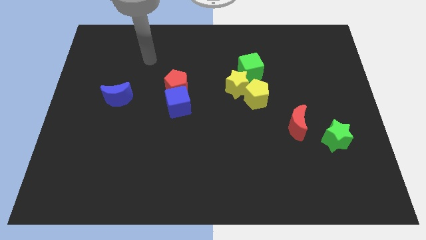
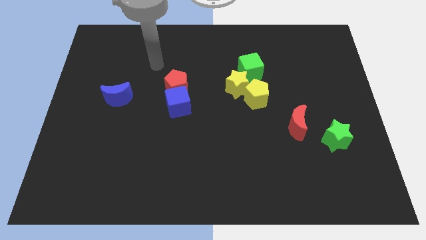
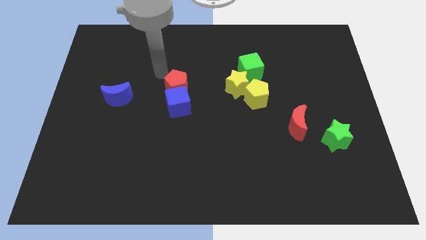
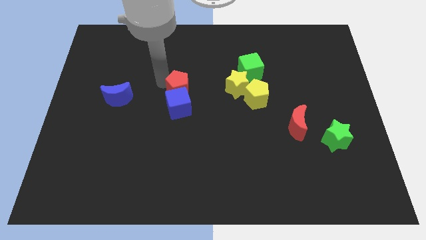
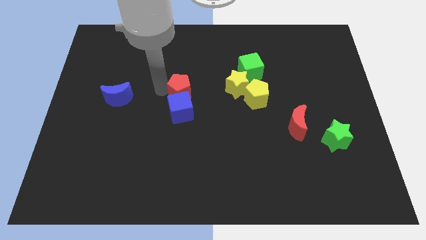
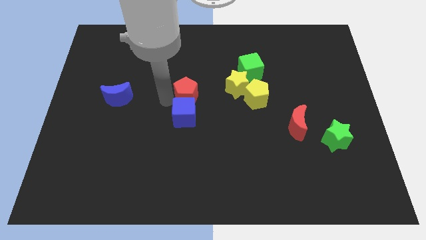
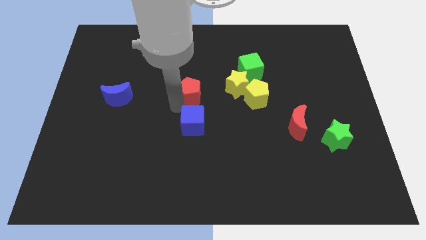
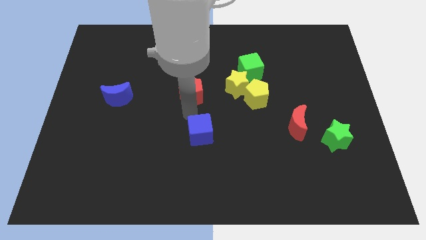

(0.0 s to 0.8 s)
pull the red pentagon apart from the blue cube

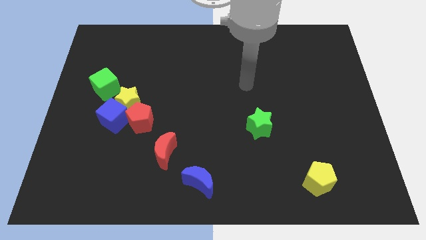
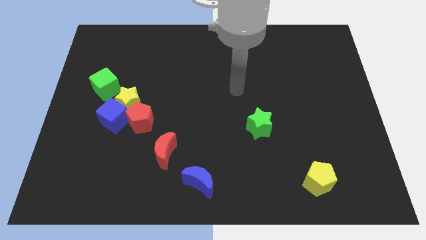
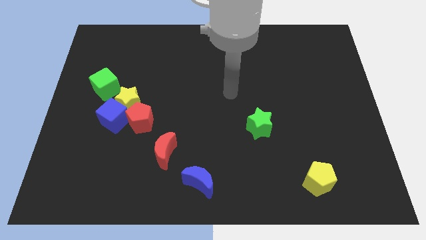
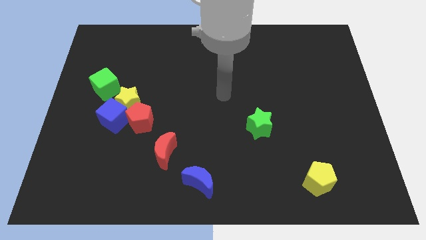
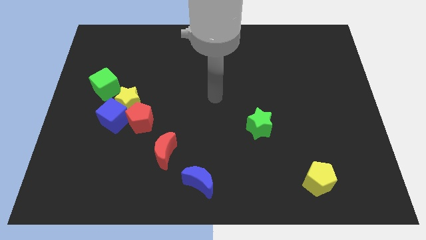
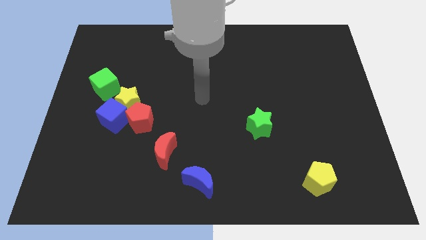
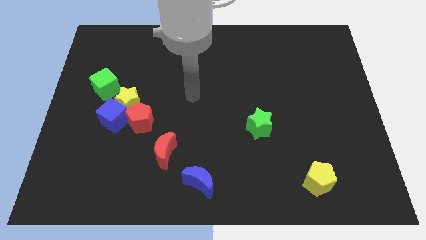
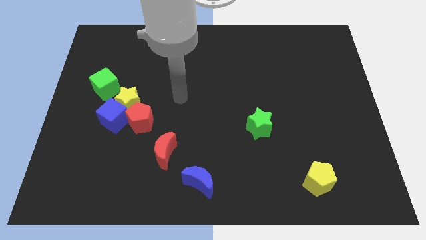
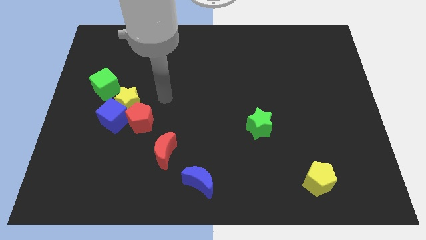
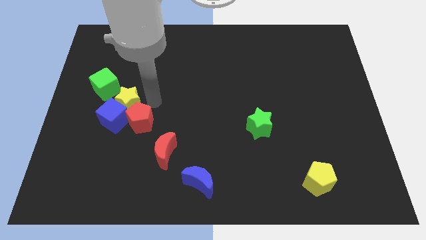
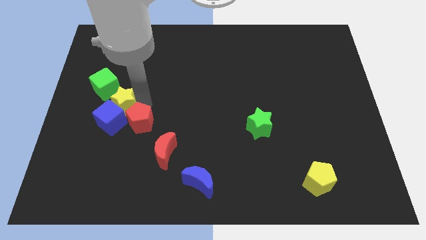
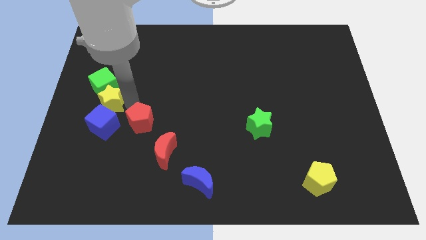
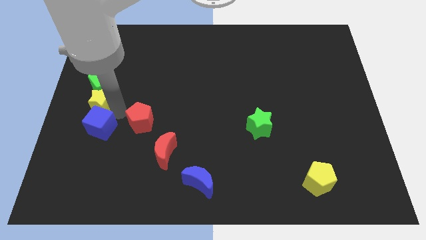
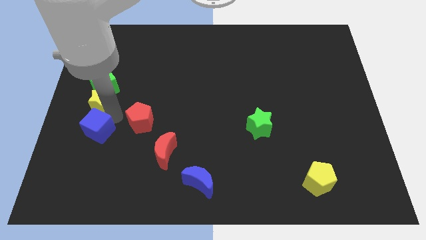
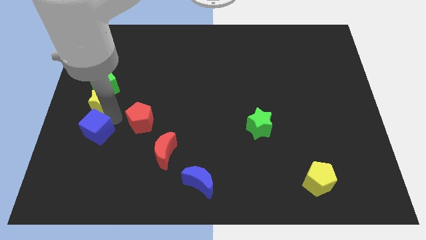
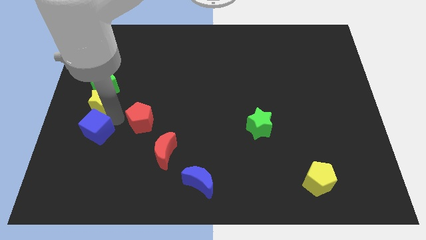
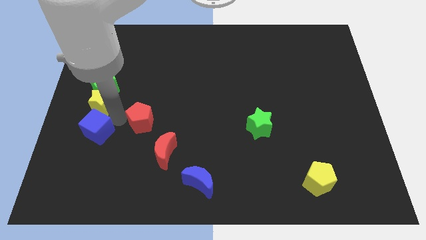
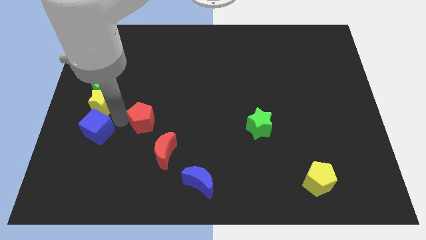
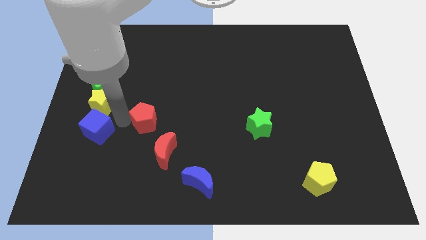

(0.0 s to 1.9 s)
pull the red pentagon apart from the yellow star and blue cube

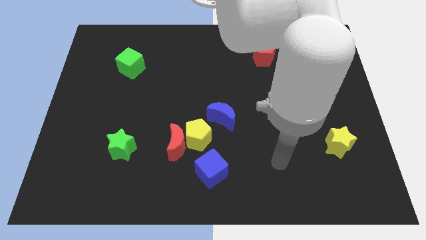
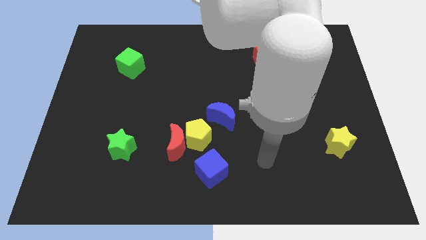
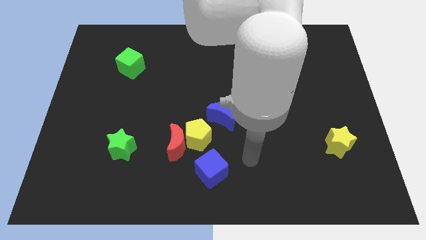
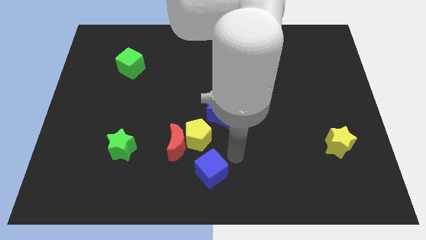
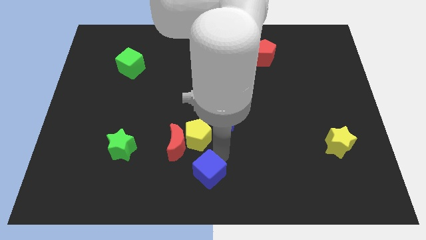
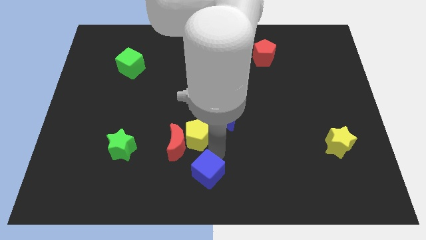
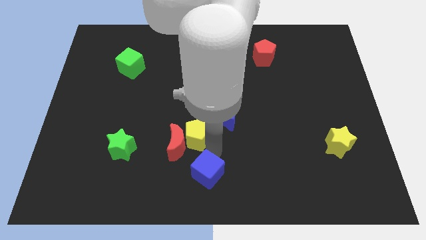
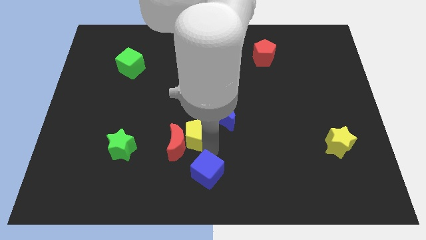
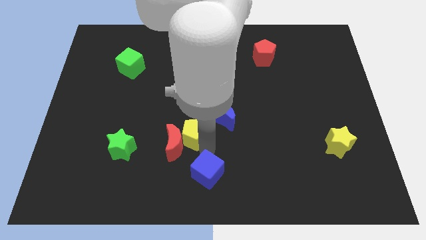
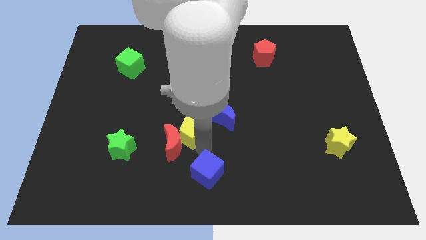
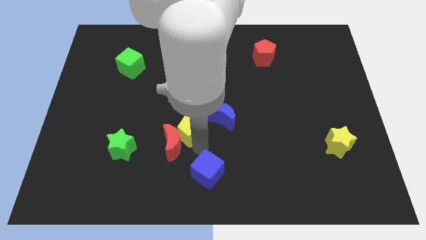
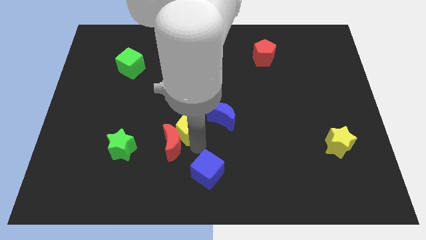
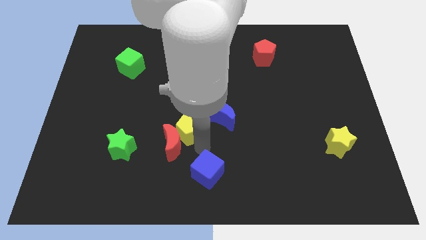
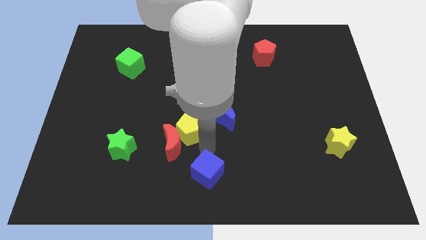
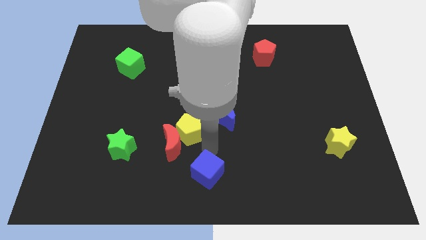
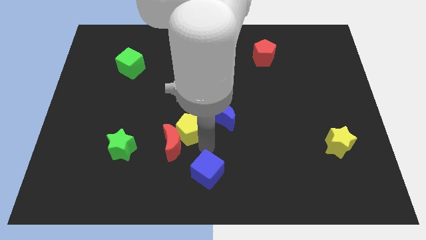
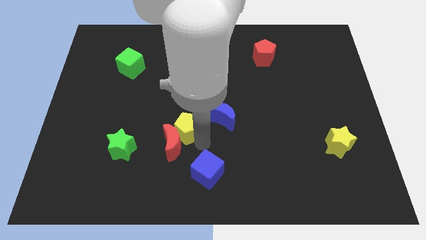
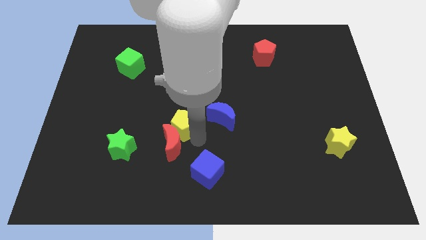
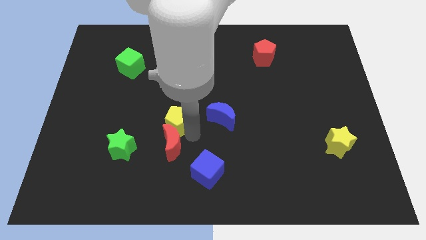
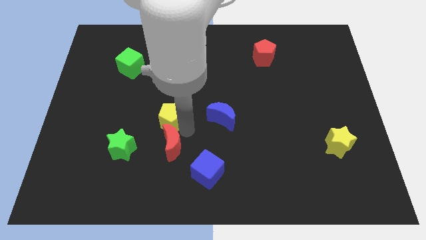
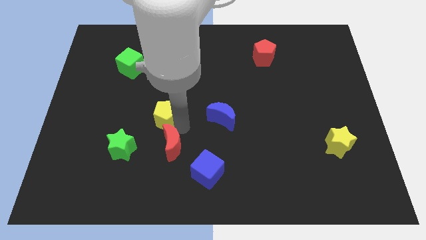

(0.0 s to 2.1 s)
move the yellow pentagon away from the red moon, blue moon, and blue cube

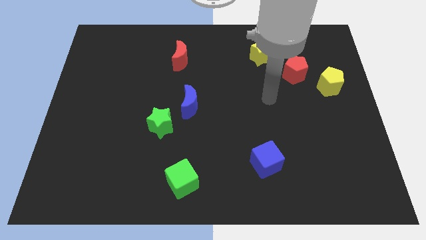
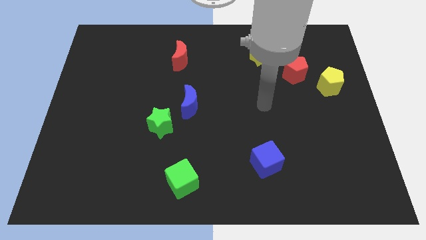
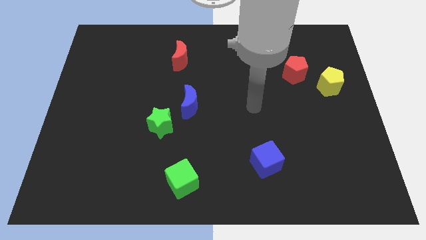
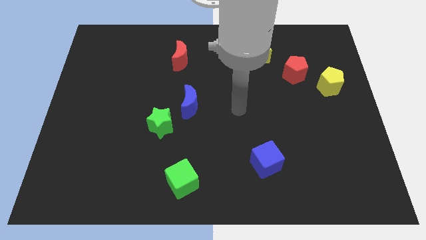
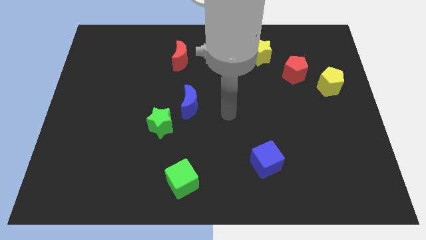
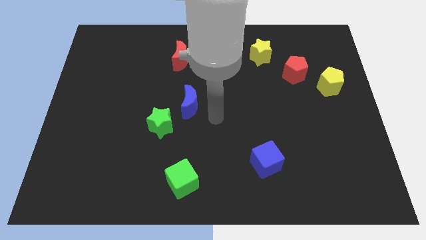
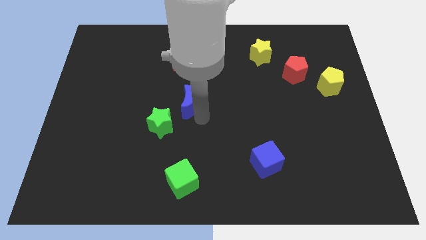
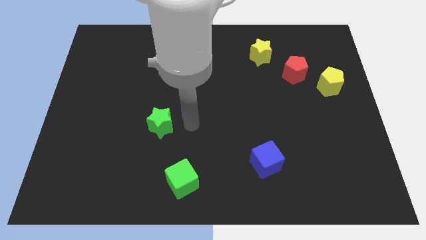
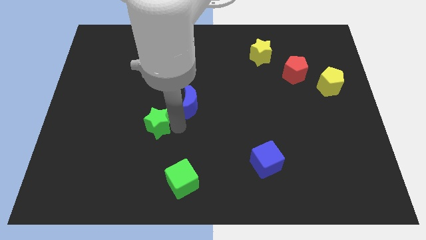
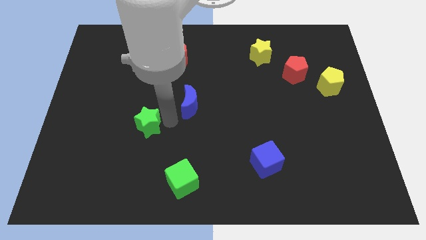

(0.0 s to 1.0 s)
separate the blue moon from the green star

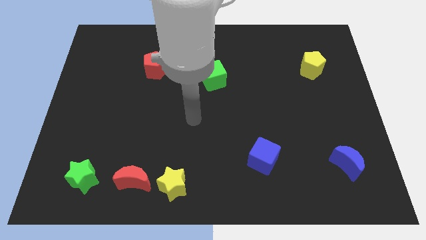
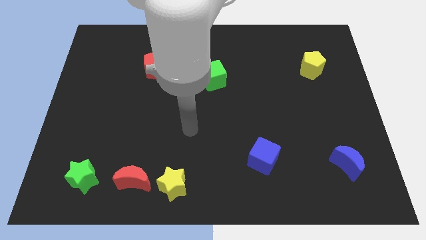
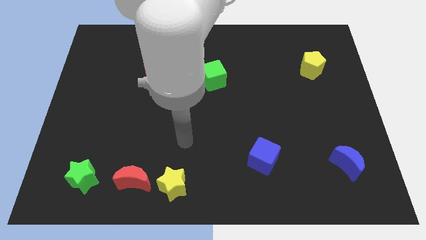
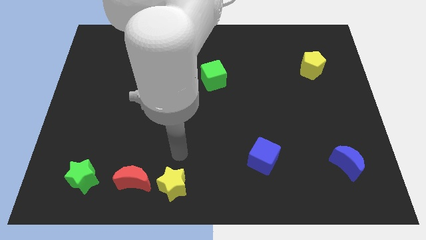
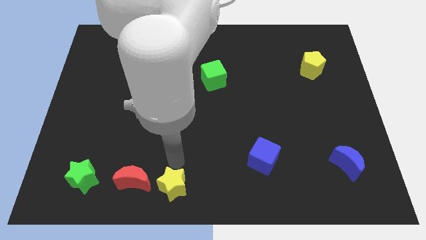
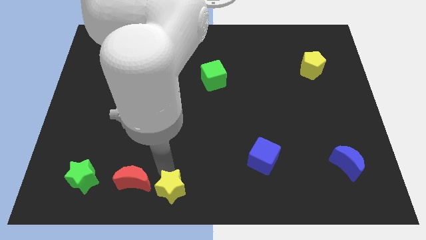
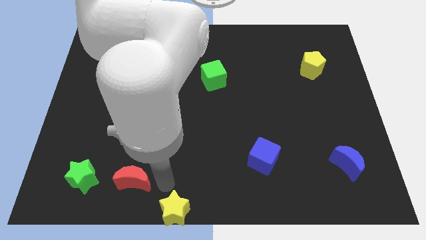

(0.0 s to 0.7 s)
pull the red moon apart from the yellow star

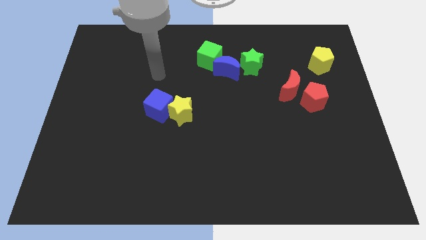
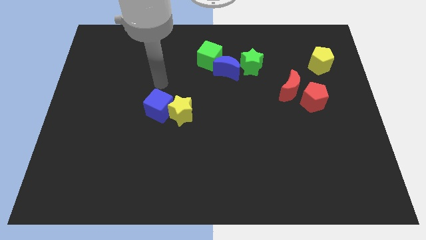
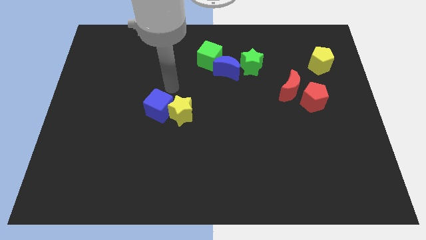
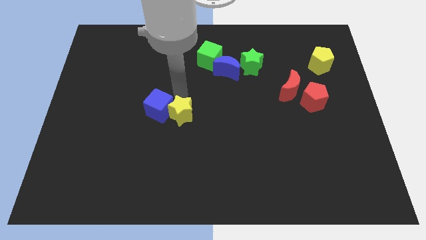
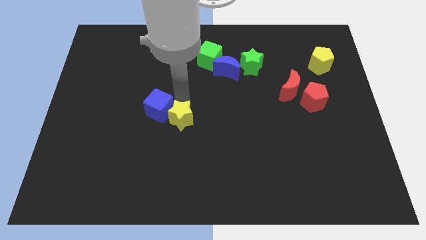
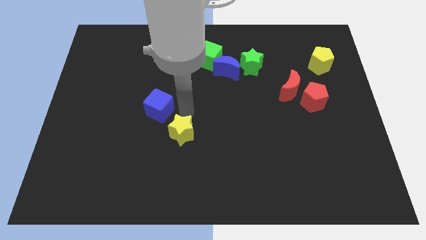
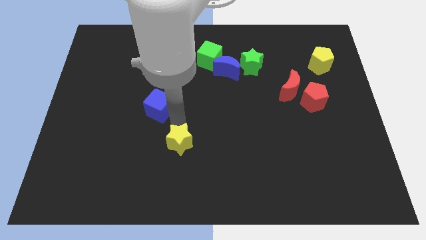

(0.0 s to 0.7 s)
pull the blue cube apart from the yellow star

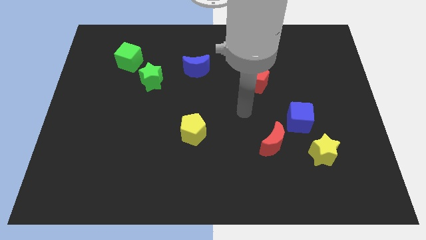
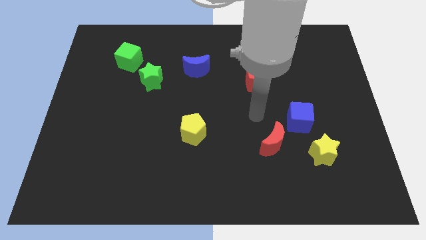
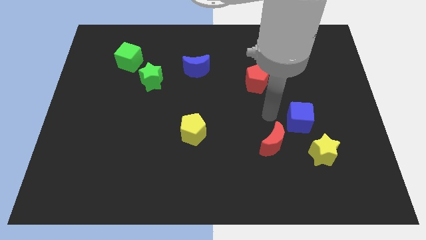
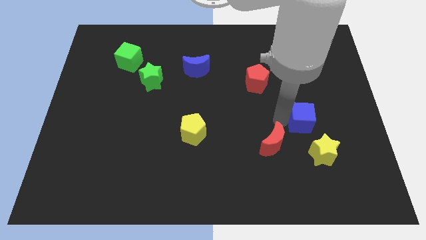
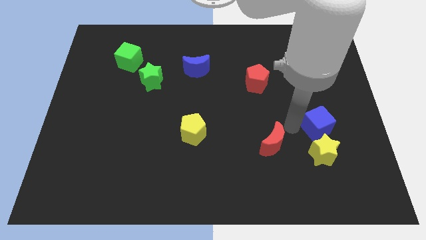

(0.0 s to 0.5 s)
pull the red moon apart from the blue cube

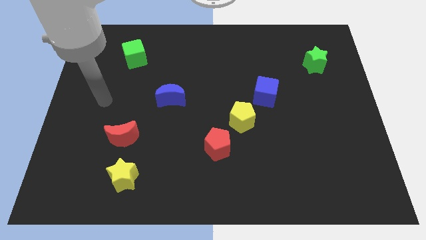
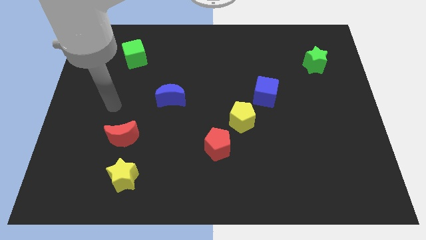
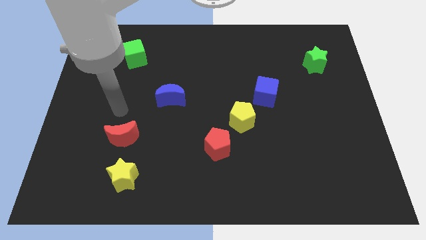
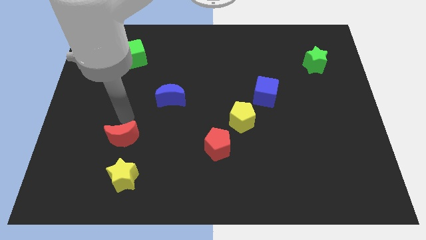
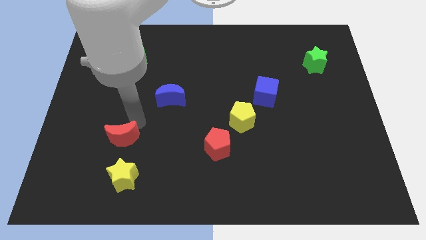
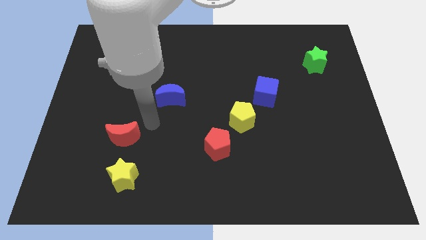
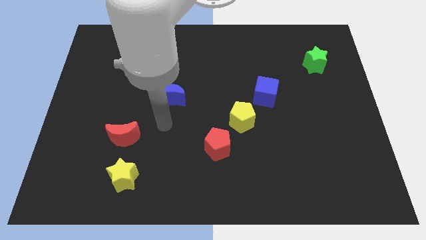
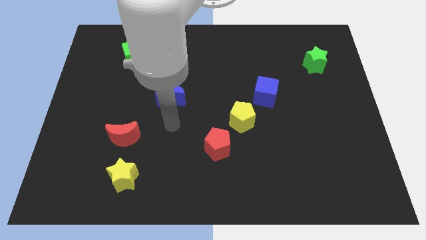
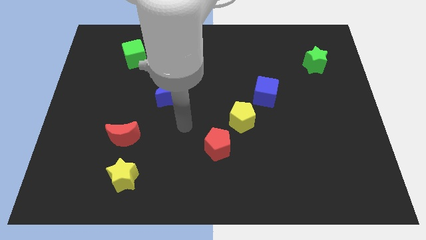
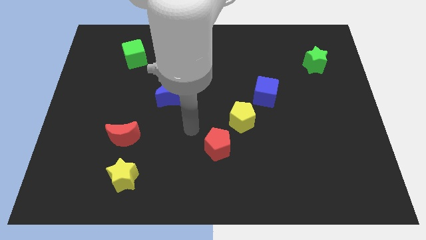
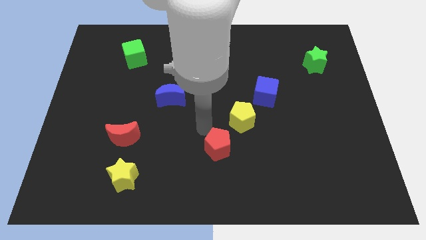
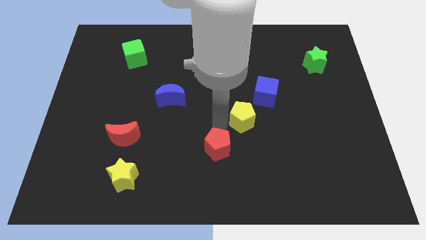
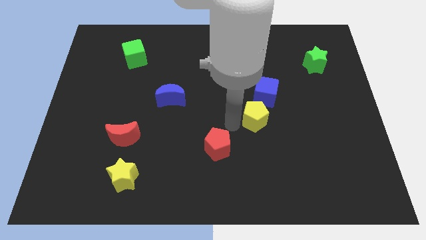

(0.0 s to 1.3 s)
separate the red pentagon from the yellow pentagon

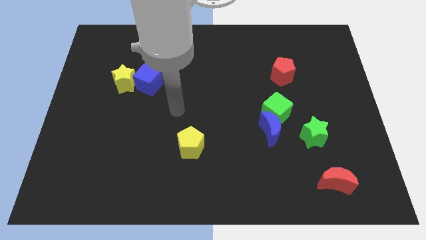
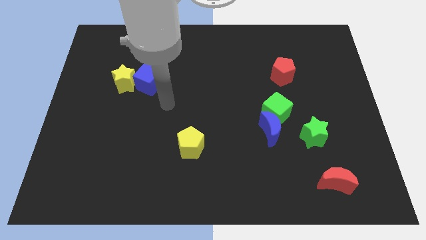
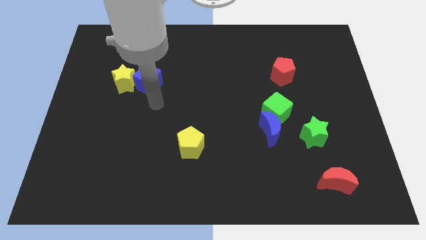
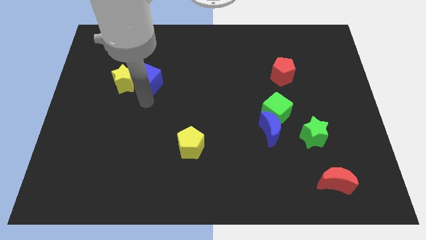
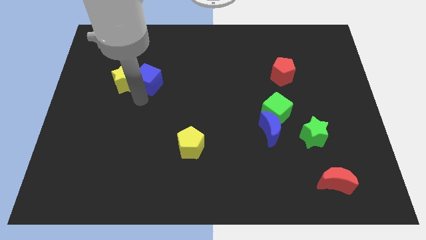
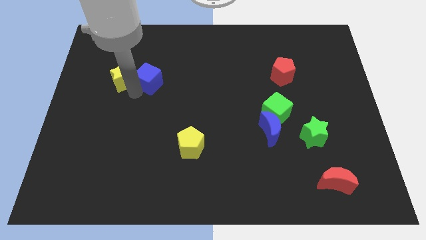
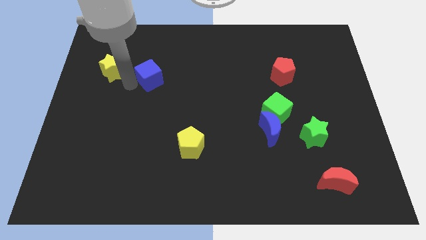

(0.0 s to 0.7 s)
separate the blue cube from the yellow star
